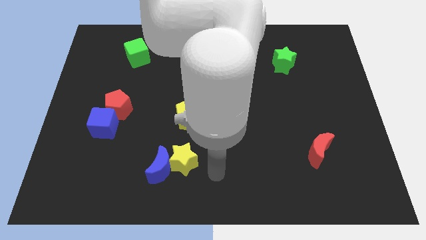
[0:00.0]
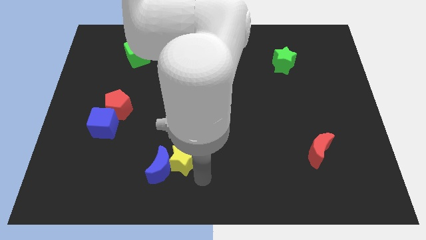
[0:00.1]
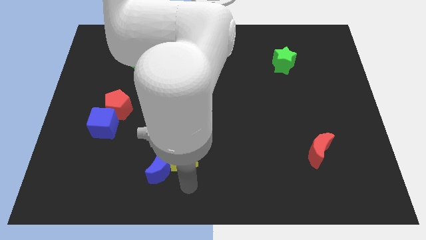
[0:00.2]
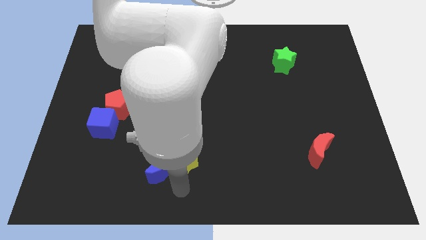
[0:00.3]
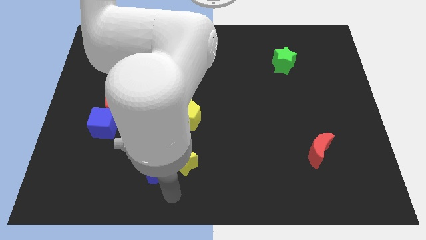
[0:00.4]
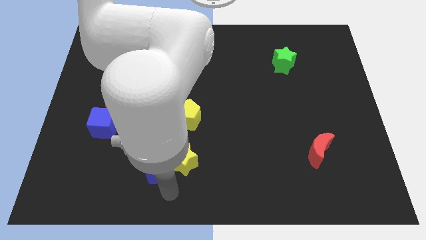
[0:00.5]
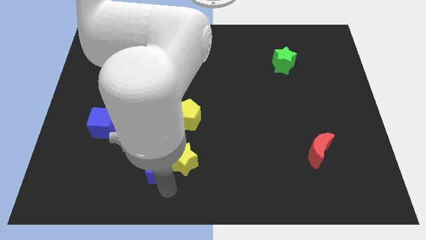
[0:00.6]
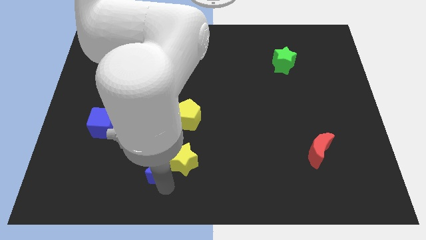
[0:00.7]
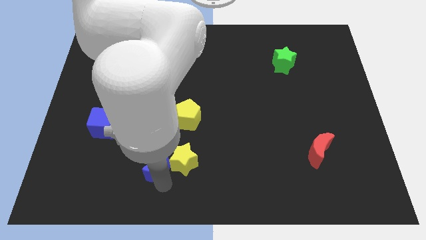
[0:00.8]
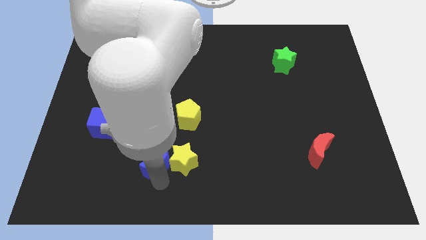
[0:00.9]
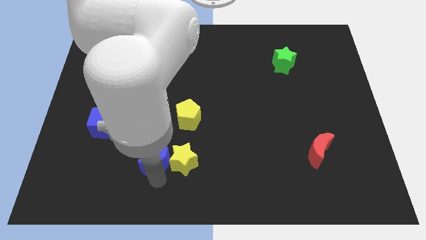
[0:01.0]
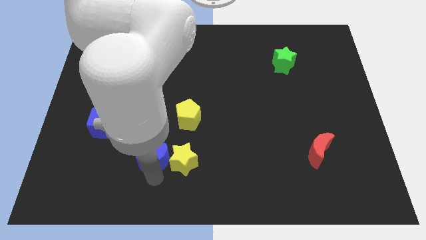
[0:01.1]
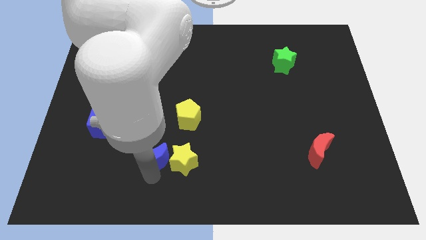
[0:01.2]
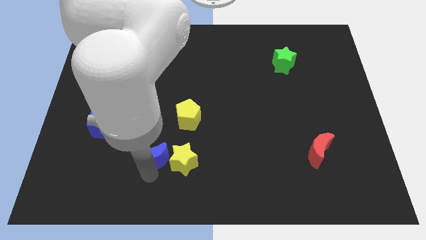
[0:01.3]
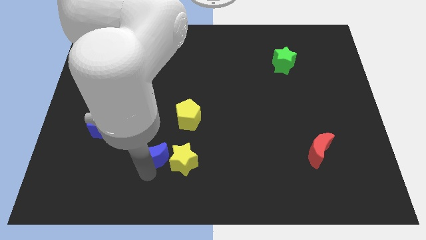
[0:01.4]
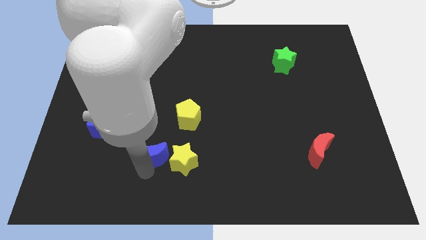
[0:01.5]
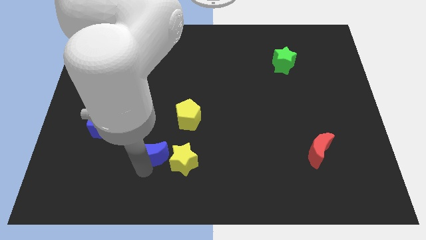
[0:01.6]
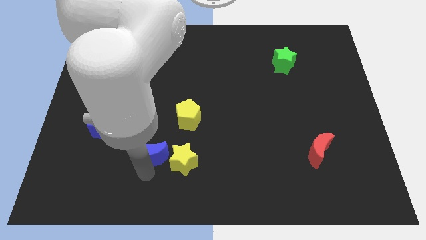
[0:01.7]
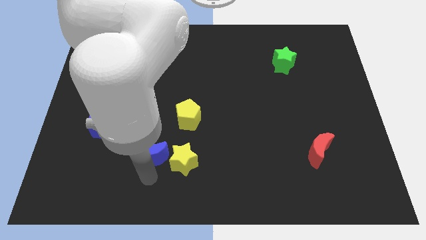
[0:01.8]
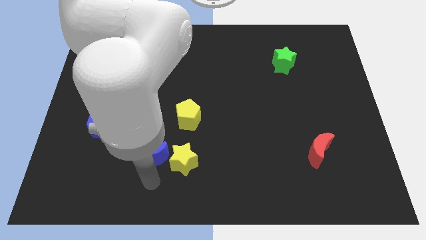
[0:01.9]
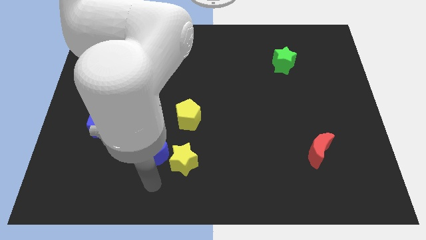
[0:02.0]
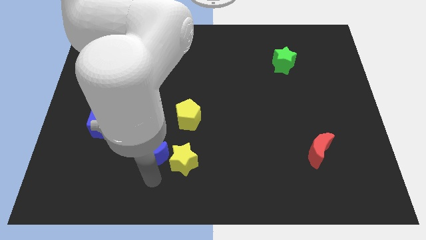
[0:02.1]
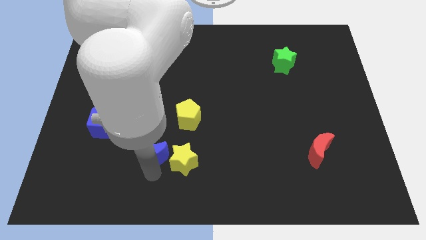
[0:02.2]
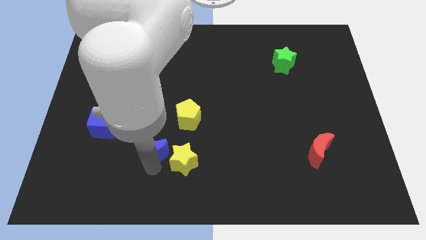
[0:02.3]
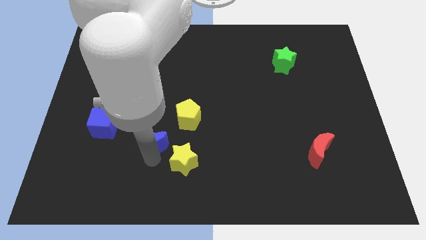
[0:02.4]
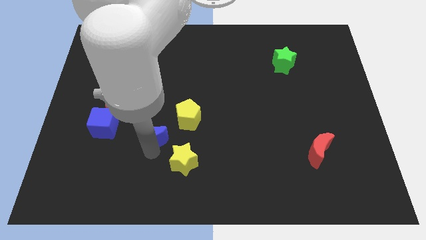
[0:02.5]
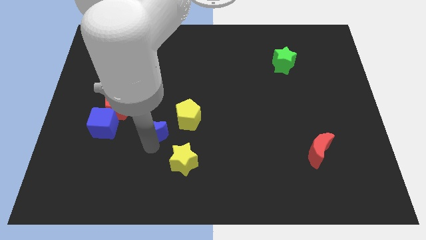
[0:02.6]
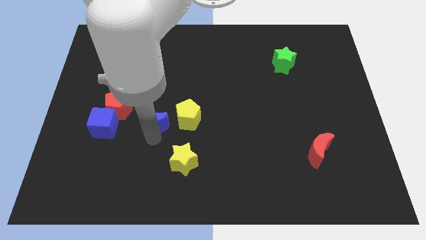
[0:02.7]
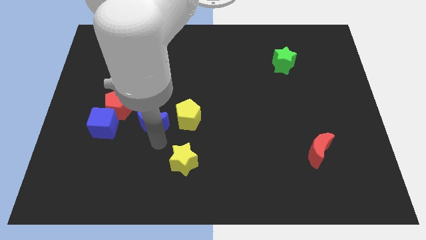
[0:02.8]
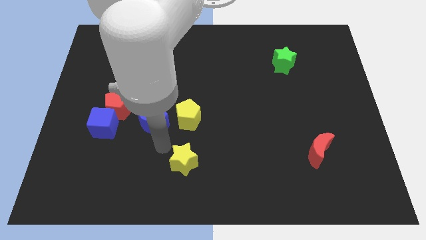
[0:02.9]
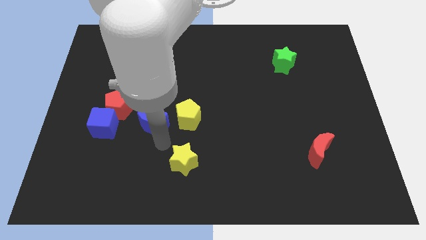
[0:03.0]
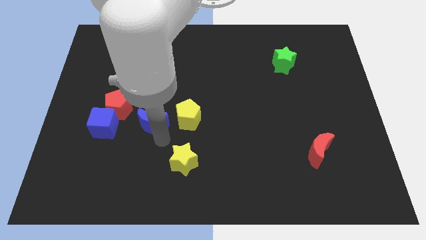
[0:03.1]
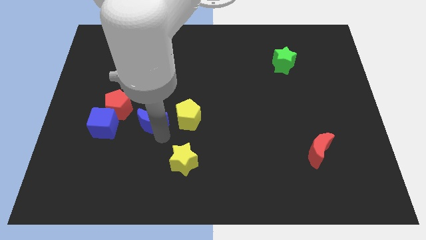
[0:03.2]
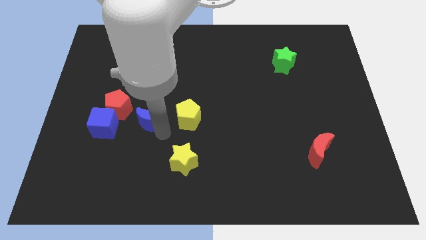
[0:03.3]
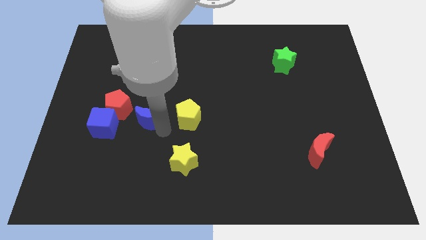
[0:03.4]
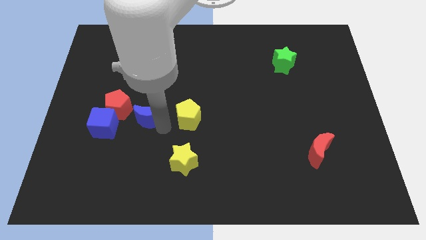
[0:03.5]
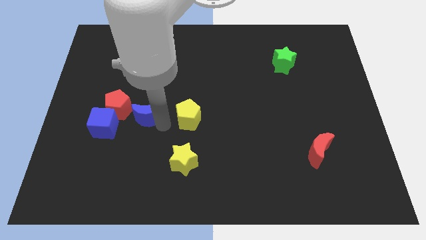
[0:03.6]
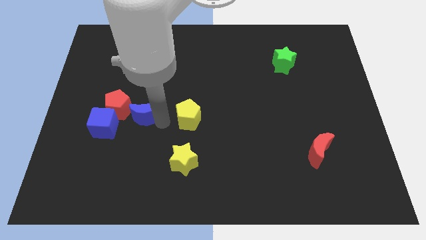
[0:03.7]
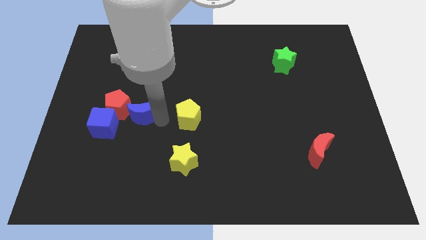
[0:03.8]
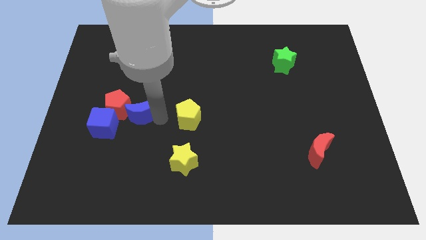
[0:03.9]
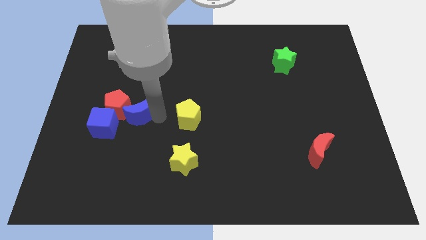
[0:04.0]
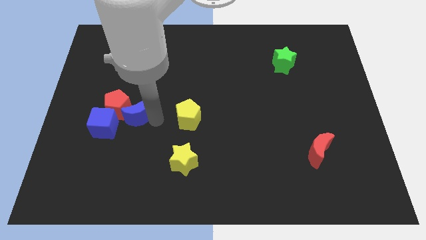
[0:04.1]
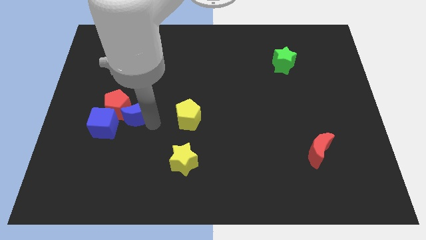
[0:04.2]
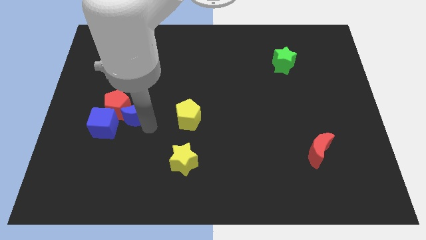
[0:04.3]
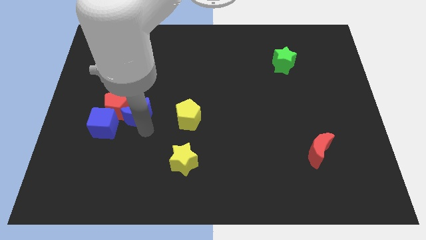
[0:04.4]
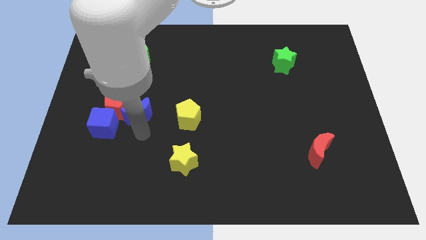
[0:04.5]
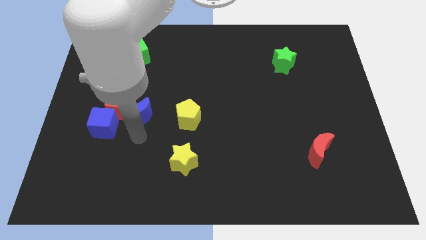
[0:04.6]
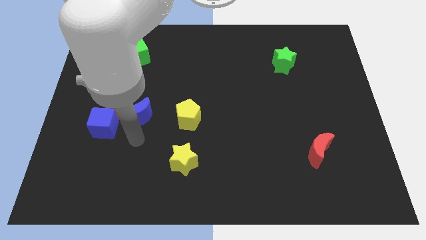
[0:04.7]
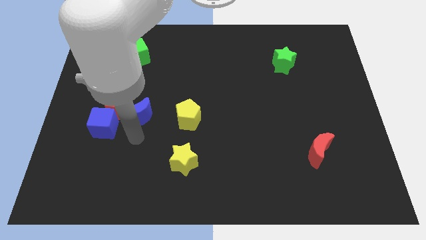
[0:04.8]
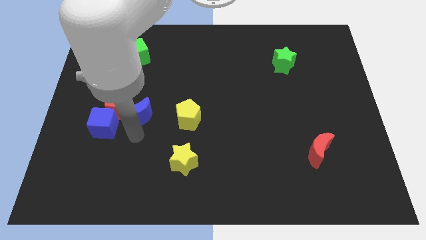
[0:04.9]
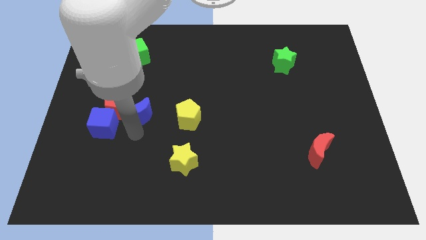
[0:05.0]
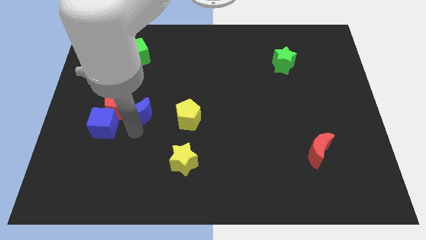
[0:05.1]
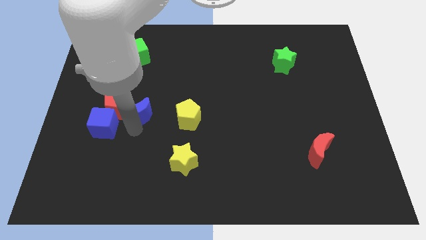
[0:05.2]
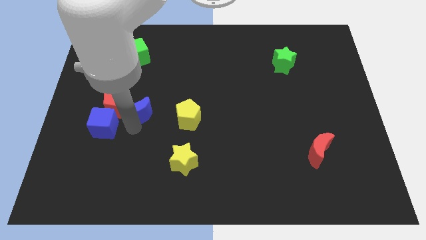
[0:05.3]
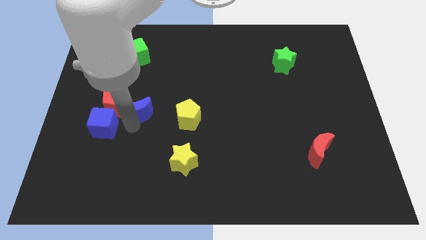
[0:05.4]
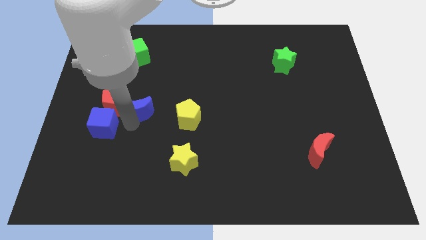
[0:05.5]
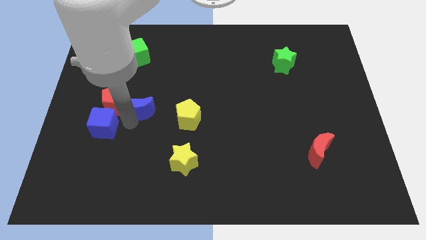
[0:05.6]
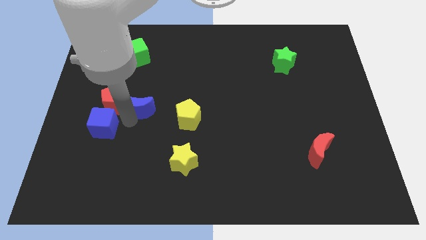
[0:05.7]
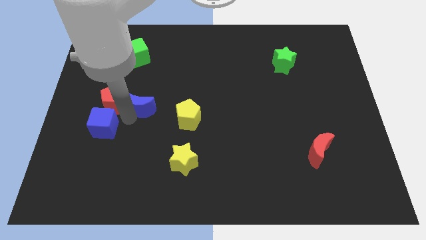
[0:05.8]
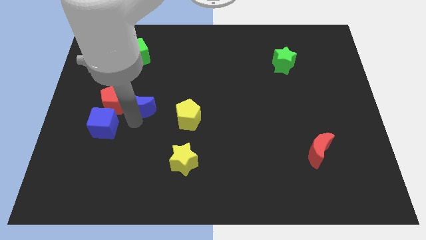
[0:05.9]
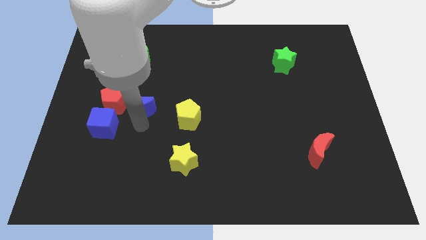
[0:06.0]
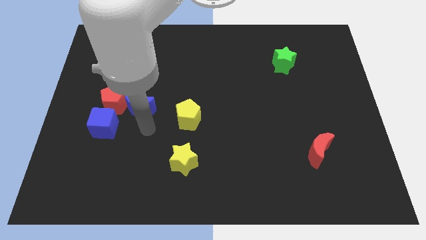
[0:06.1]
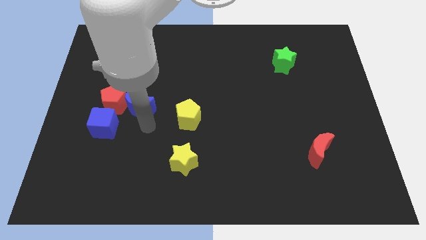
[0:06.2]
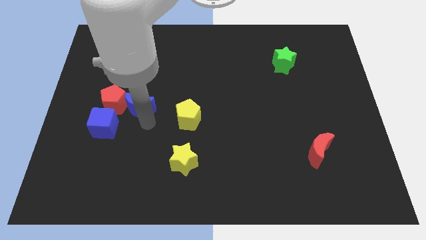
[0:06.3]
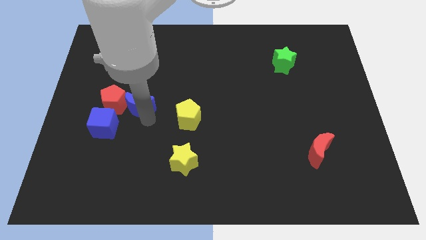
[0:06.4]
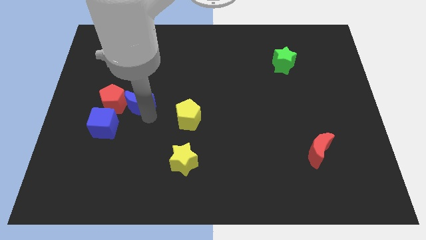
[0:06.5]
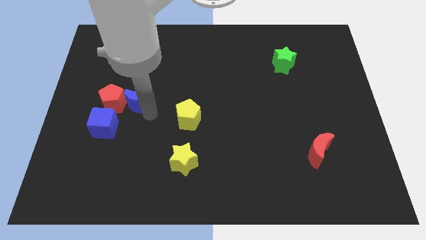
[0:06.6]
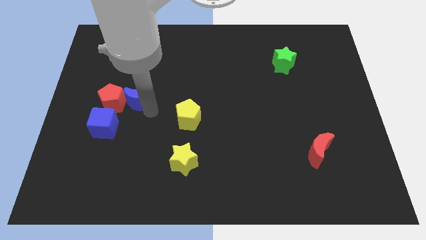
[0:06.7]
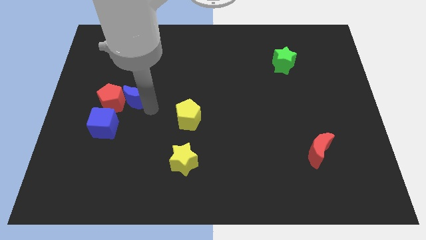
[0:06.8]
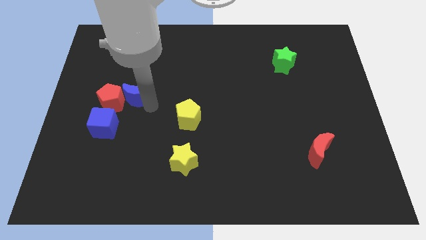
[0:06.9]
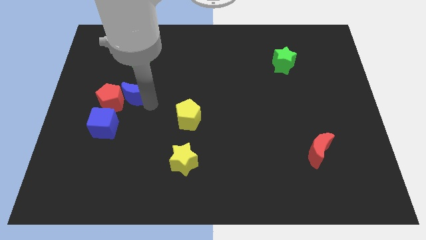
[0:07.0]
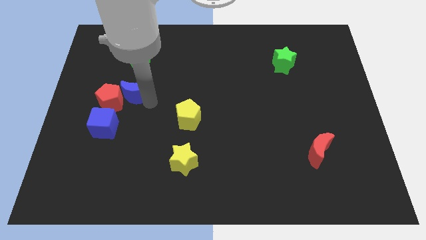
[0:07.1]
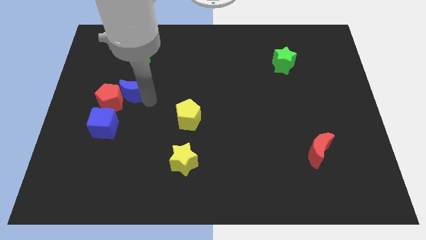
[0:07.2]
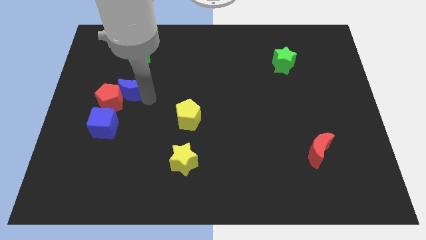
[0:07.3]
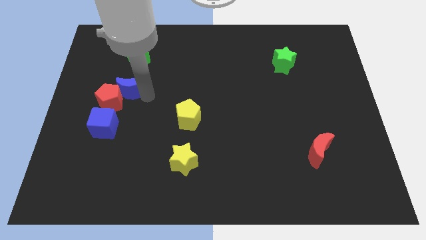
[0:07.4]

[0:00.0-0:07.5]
move the blue moon above the red pentagon
